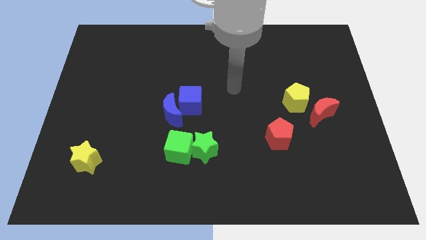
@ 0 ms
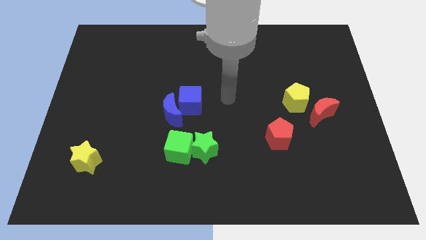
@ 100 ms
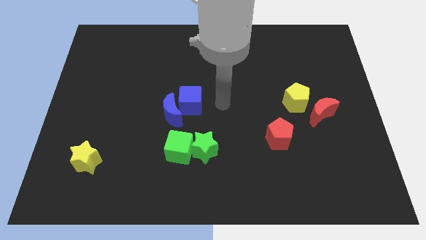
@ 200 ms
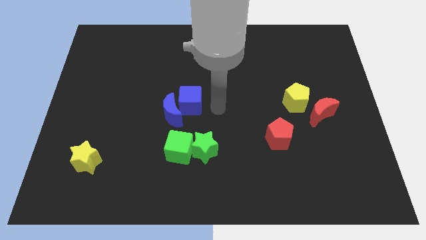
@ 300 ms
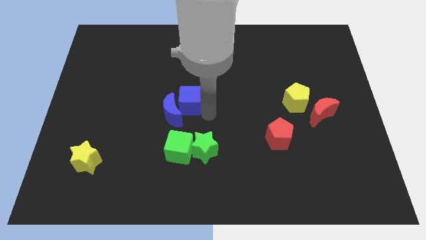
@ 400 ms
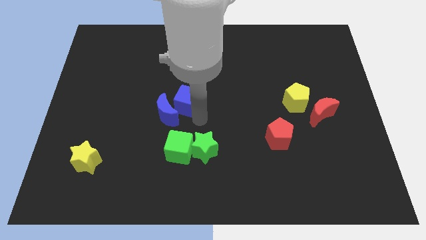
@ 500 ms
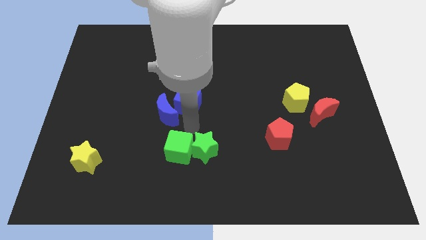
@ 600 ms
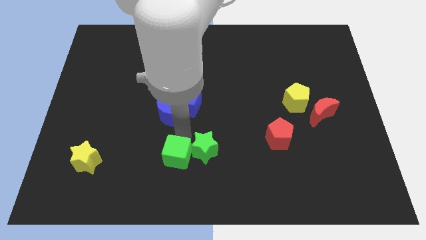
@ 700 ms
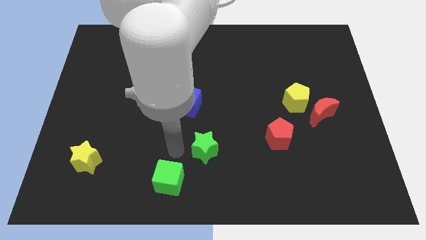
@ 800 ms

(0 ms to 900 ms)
pull the green star apart from the green cube

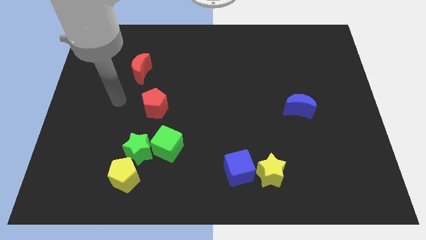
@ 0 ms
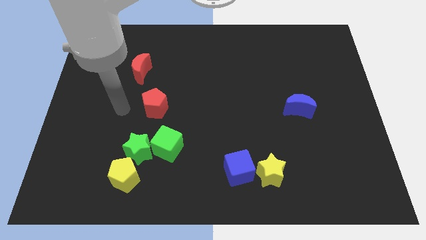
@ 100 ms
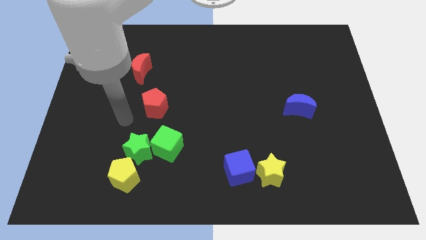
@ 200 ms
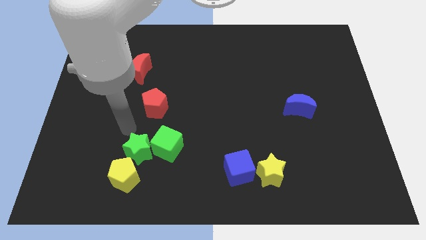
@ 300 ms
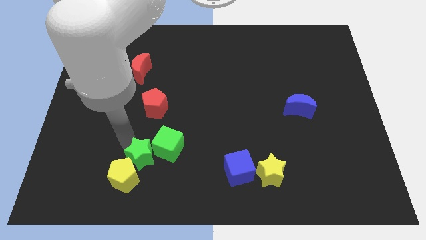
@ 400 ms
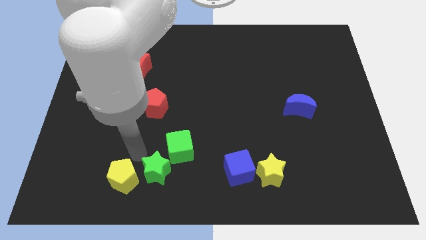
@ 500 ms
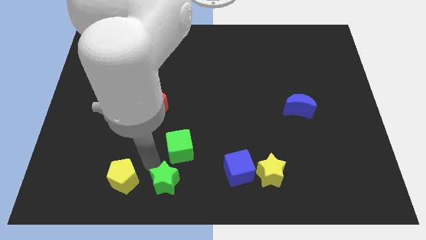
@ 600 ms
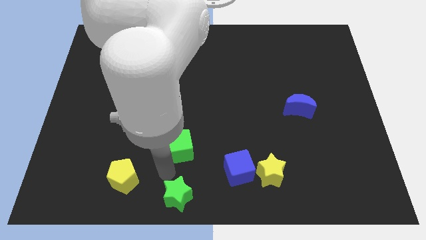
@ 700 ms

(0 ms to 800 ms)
separate the green cube from the green star

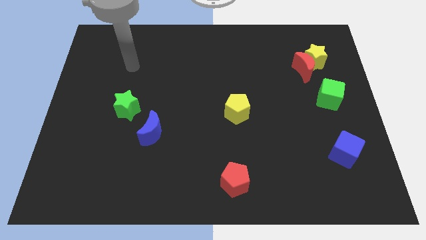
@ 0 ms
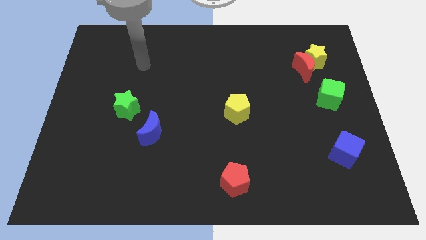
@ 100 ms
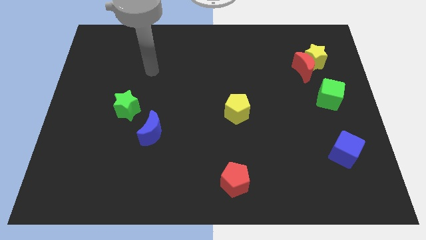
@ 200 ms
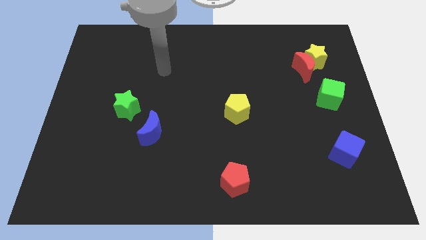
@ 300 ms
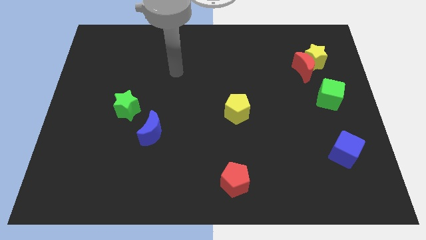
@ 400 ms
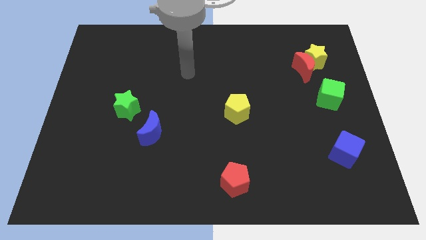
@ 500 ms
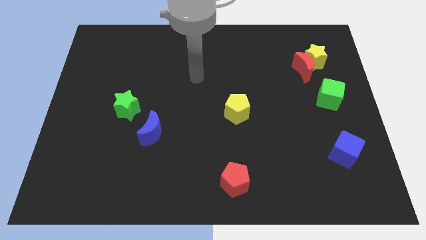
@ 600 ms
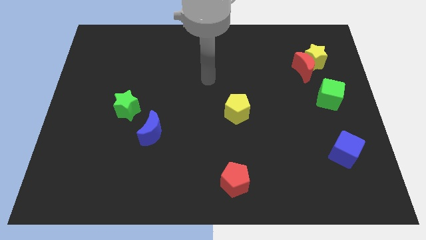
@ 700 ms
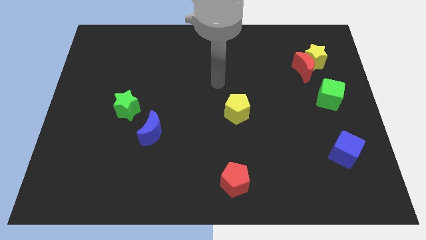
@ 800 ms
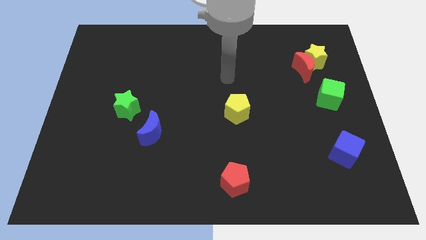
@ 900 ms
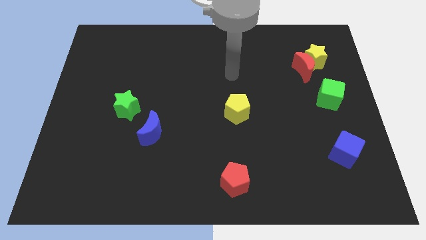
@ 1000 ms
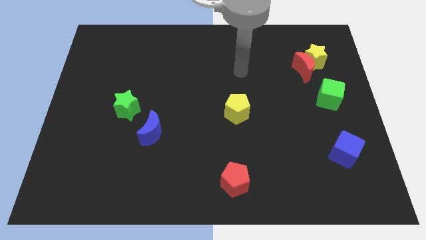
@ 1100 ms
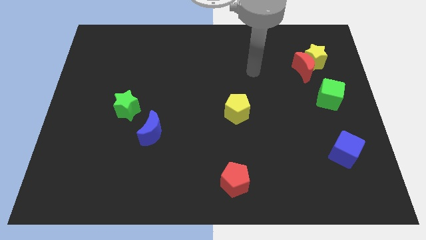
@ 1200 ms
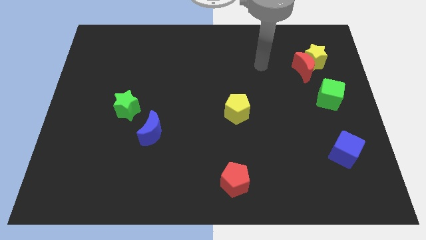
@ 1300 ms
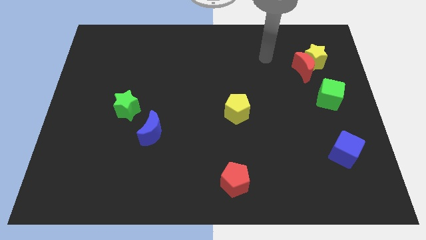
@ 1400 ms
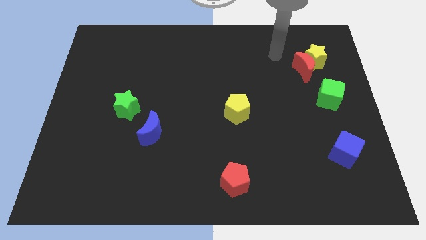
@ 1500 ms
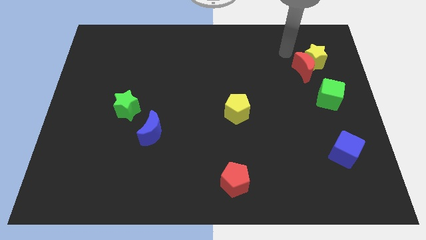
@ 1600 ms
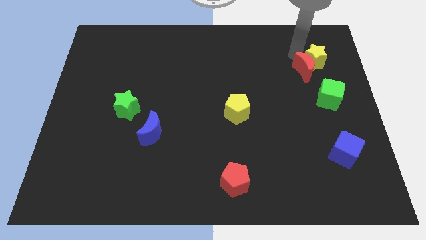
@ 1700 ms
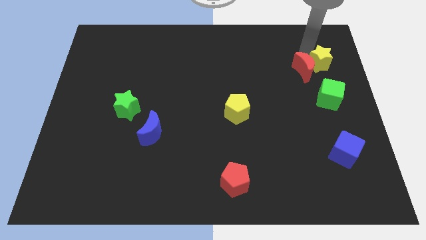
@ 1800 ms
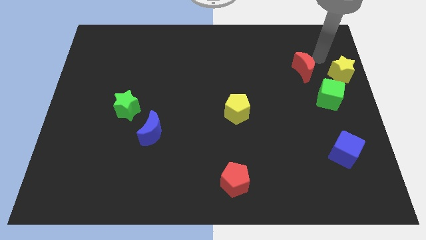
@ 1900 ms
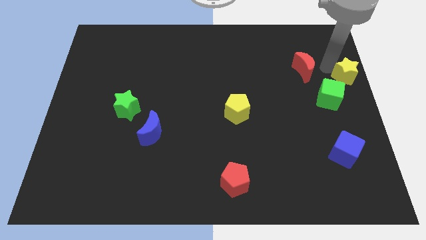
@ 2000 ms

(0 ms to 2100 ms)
move the red moon away from the yellow star

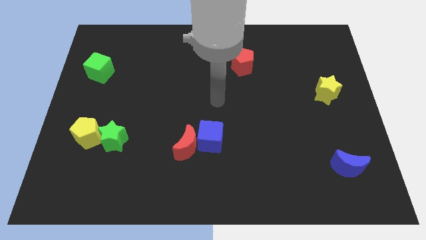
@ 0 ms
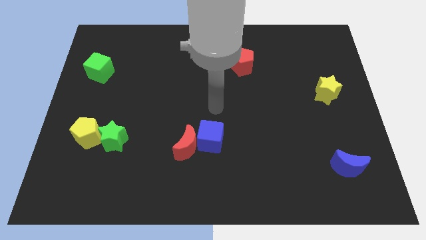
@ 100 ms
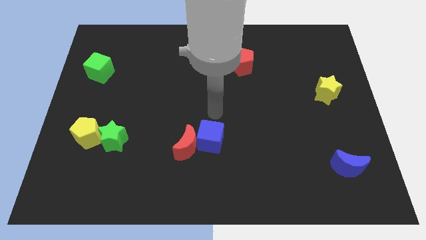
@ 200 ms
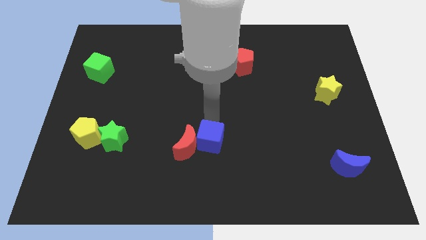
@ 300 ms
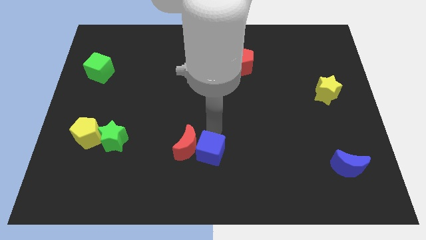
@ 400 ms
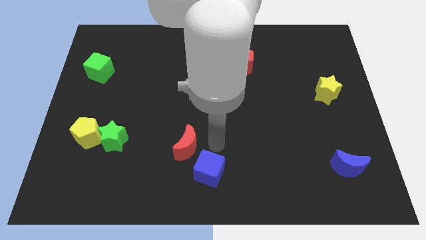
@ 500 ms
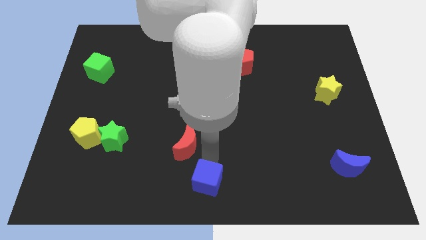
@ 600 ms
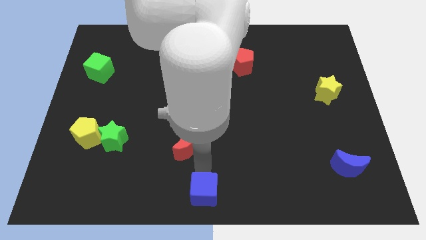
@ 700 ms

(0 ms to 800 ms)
move the red moon away from the blue cube

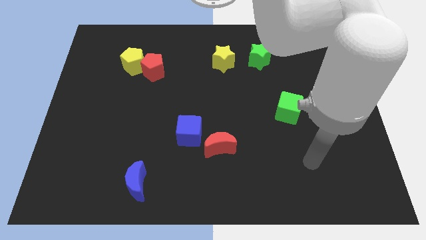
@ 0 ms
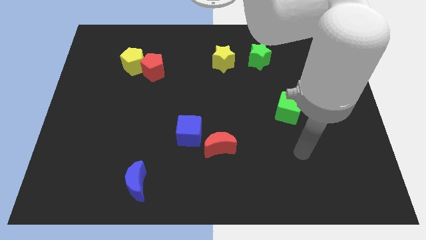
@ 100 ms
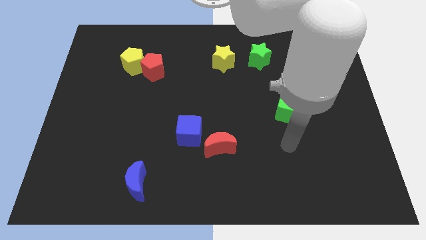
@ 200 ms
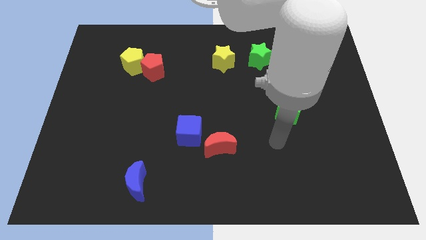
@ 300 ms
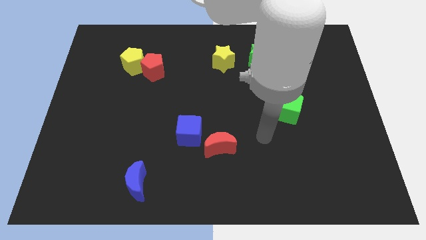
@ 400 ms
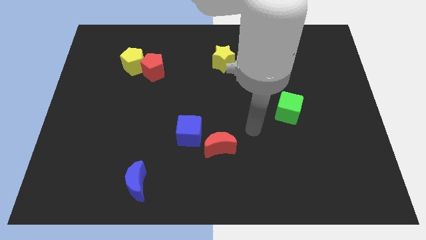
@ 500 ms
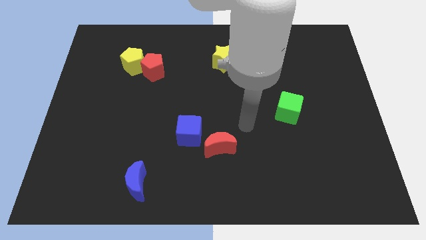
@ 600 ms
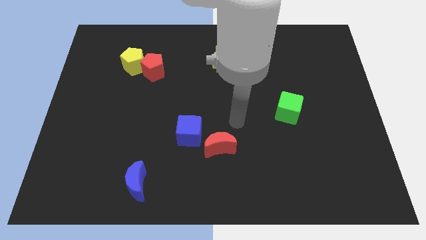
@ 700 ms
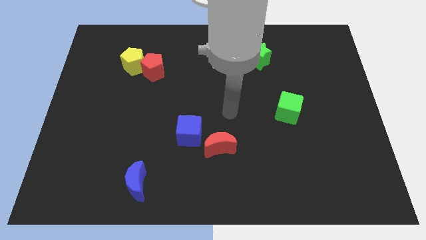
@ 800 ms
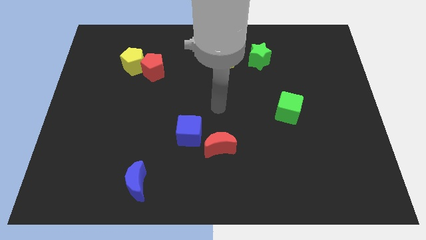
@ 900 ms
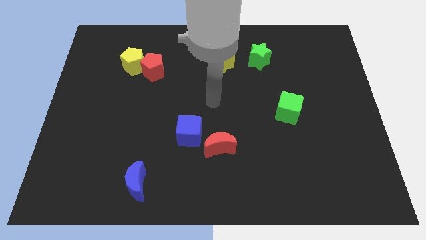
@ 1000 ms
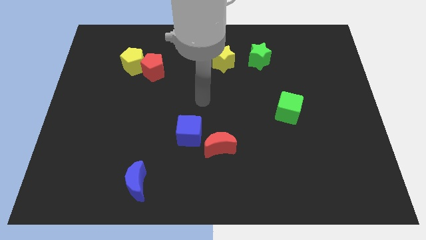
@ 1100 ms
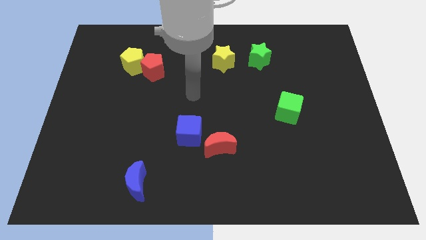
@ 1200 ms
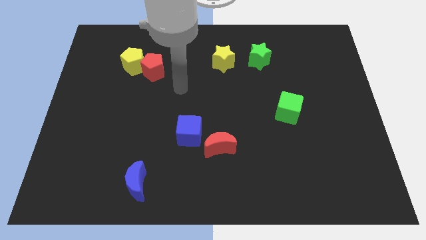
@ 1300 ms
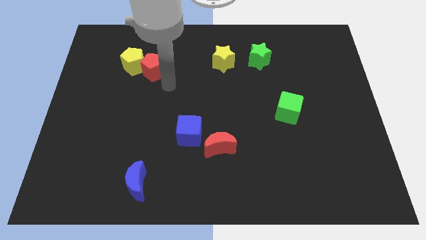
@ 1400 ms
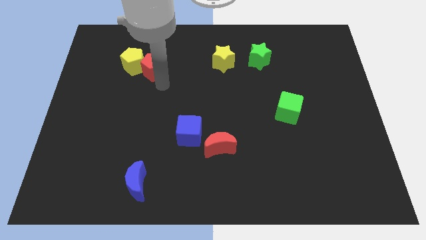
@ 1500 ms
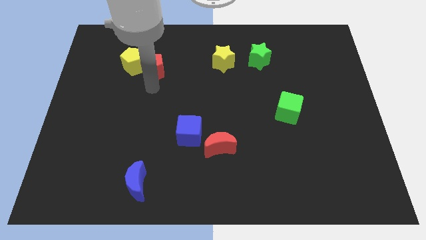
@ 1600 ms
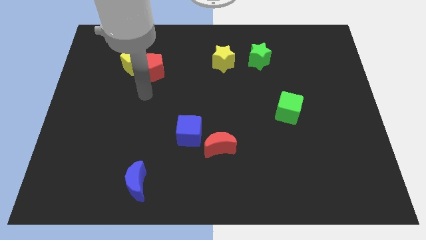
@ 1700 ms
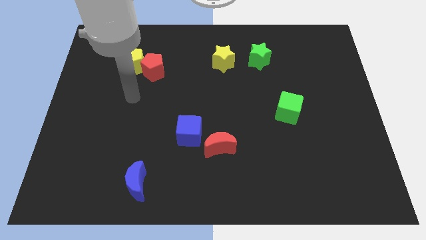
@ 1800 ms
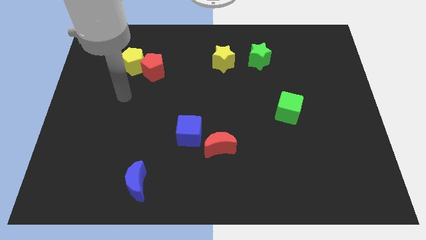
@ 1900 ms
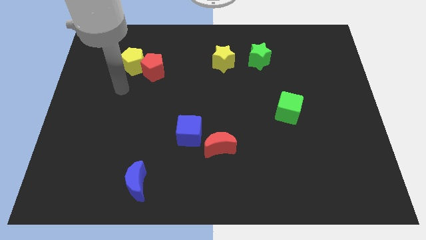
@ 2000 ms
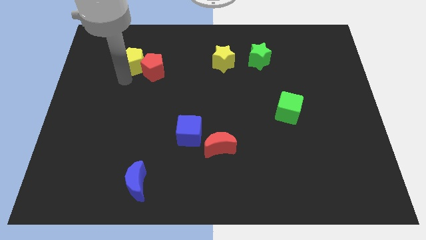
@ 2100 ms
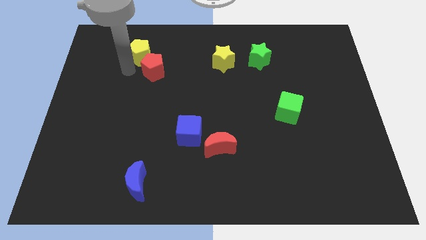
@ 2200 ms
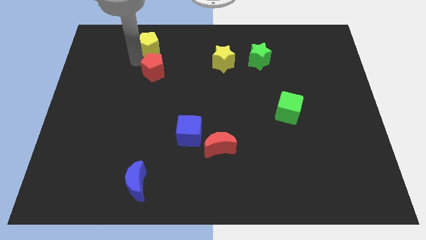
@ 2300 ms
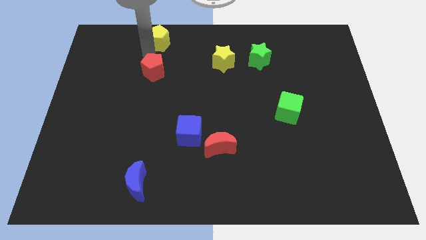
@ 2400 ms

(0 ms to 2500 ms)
pull the red pentagon apart from the yellow pentagon

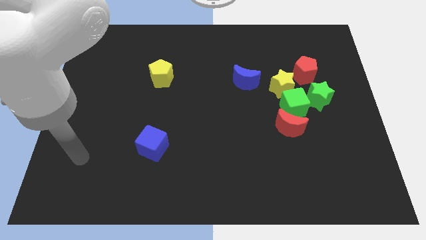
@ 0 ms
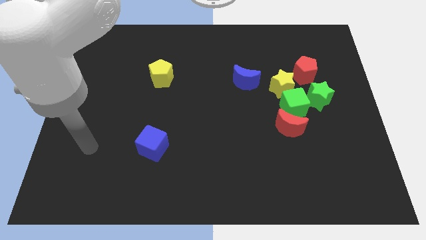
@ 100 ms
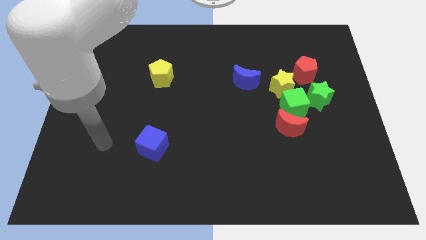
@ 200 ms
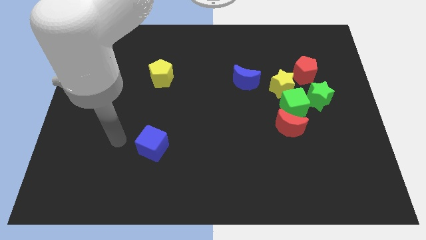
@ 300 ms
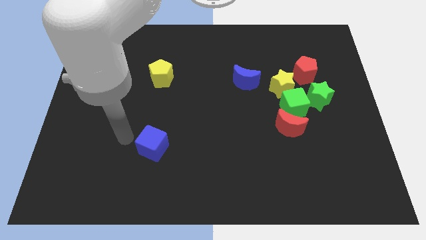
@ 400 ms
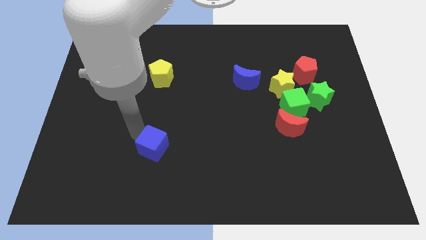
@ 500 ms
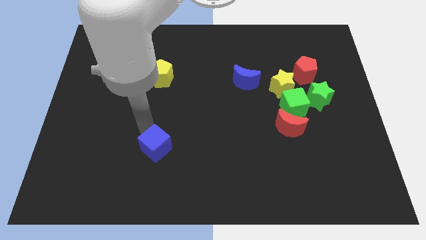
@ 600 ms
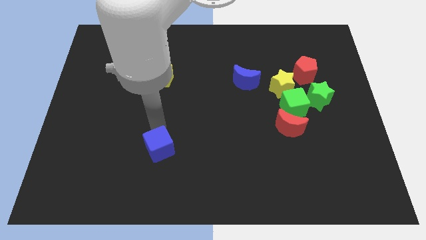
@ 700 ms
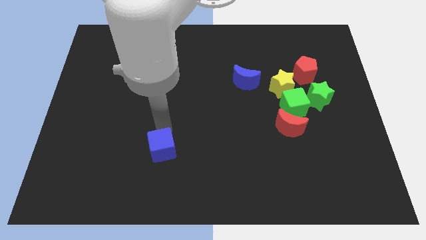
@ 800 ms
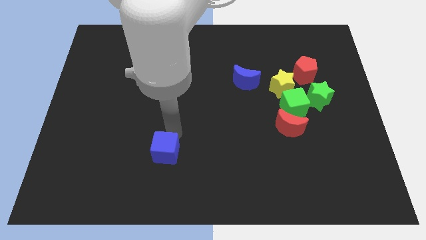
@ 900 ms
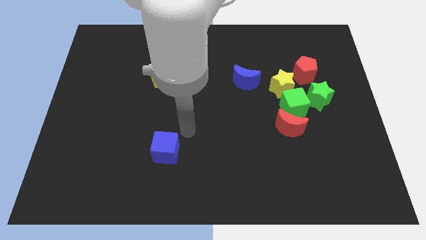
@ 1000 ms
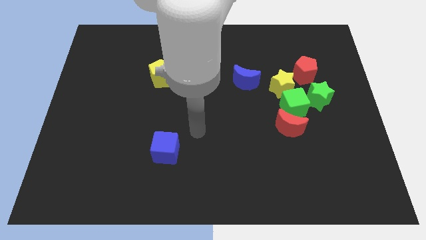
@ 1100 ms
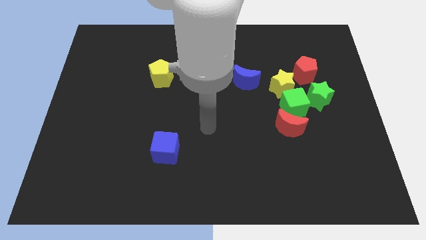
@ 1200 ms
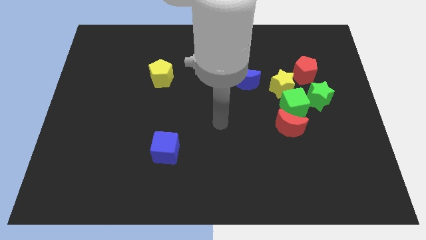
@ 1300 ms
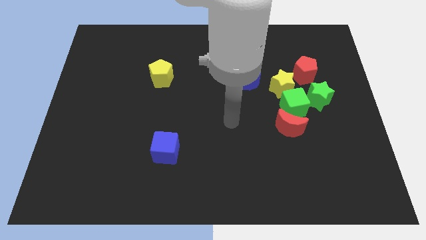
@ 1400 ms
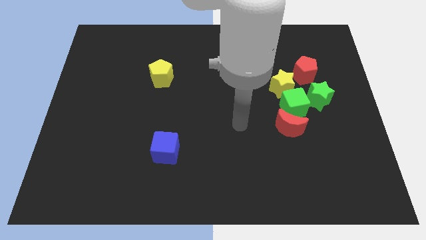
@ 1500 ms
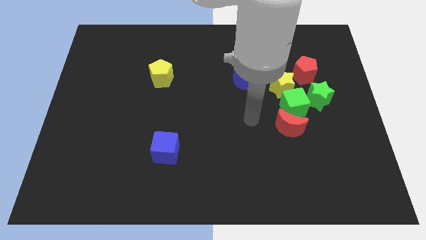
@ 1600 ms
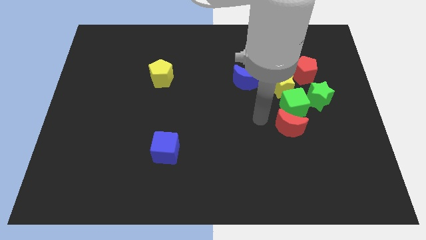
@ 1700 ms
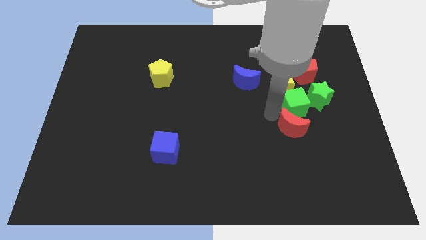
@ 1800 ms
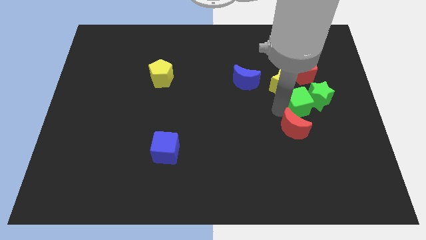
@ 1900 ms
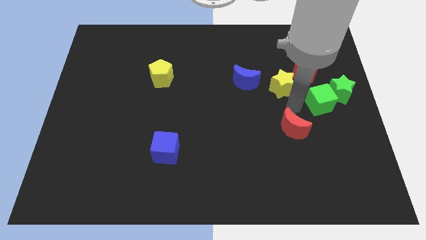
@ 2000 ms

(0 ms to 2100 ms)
move the red moon away from the green cube
